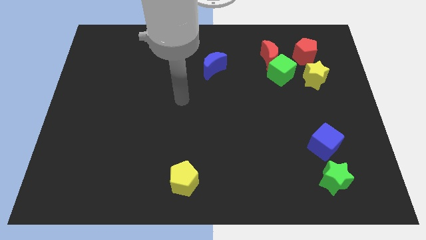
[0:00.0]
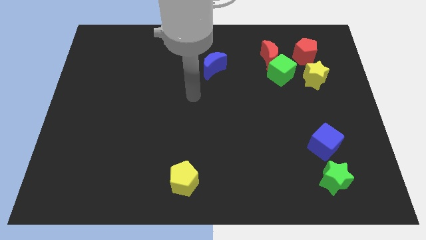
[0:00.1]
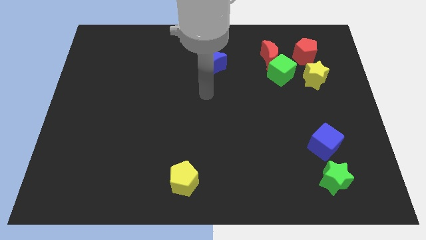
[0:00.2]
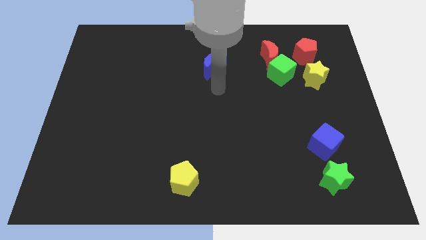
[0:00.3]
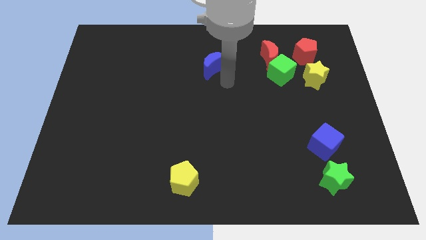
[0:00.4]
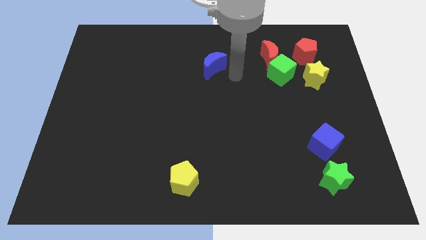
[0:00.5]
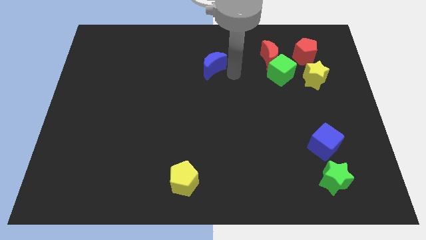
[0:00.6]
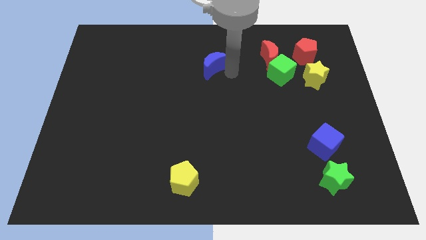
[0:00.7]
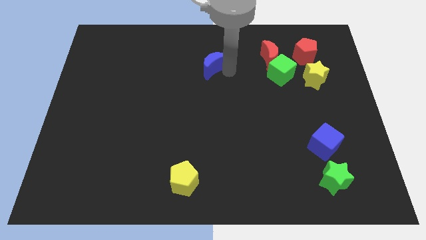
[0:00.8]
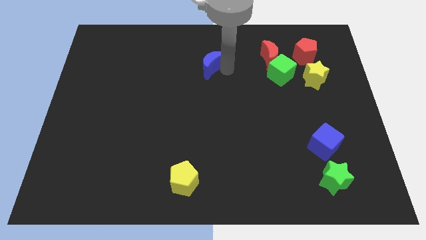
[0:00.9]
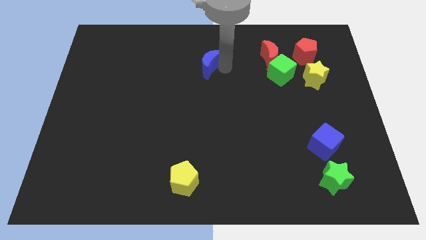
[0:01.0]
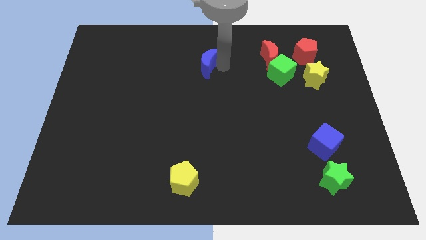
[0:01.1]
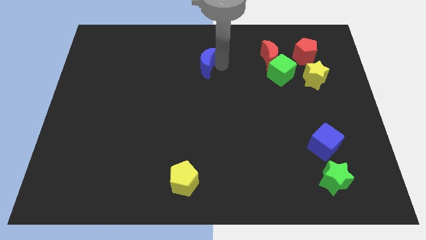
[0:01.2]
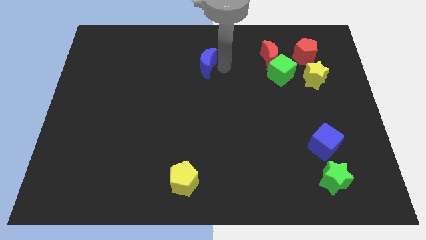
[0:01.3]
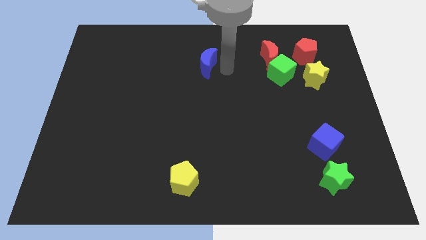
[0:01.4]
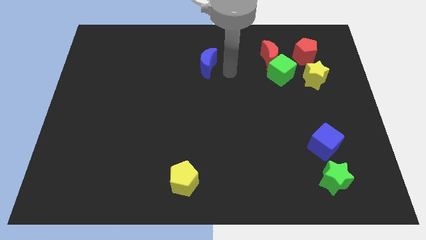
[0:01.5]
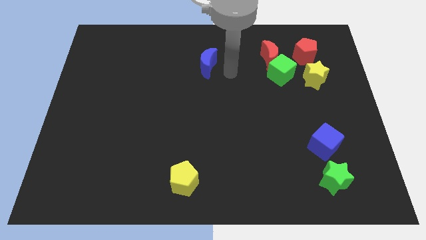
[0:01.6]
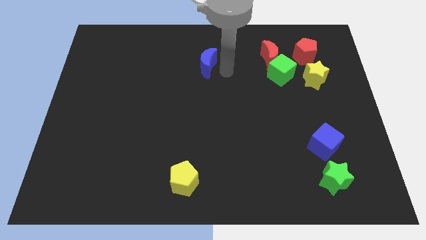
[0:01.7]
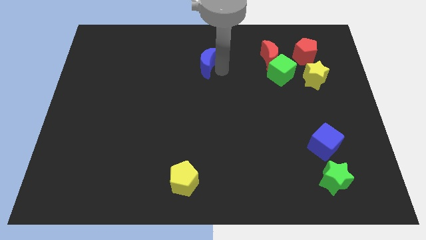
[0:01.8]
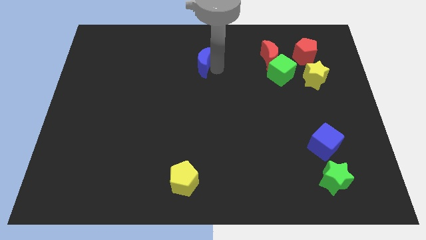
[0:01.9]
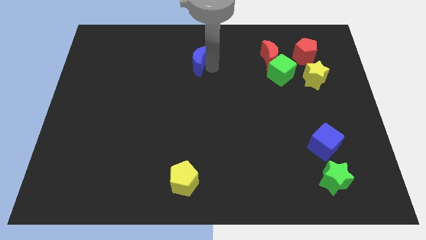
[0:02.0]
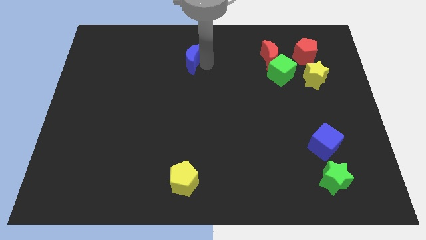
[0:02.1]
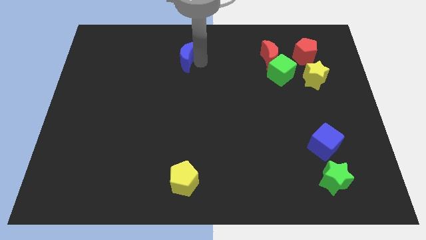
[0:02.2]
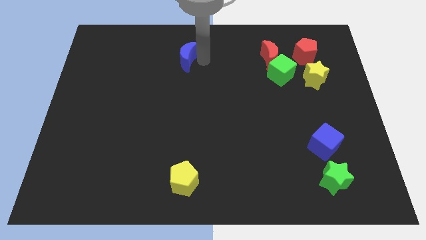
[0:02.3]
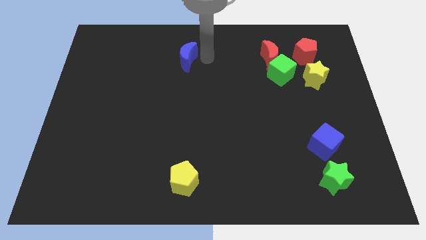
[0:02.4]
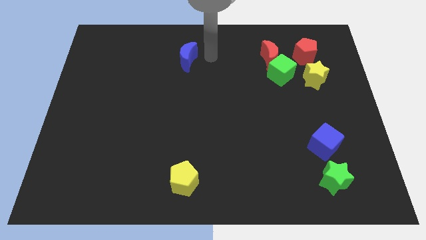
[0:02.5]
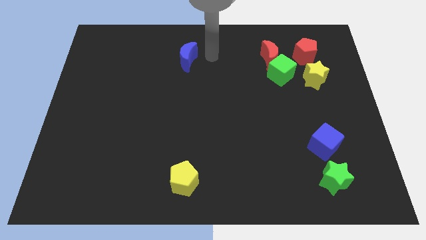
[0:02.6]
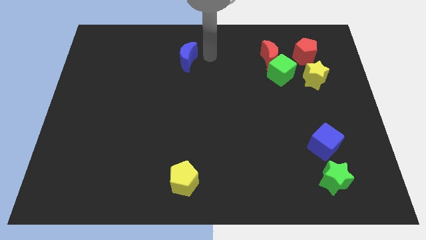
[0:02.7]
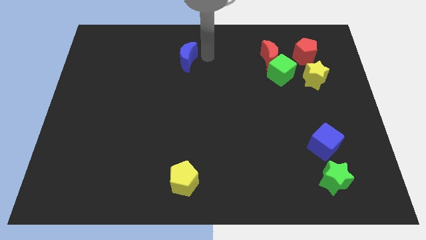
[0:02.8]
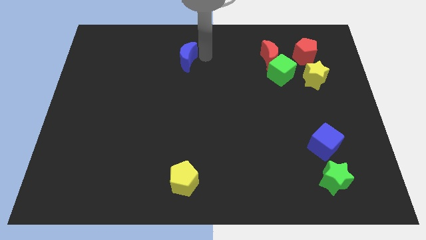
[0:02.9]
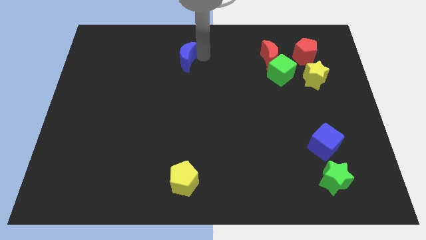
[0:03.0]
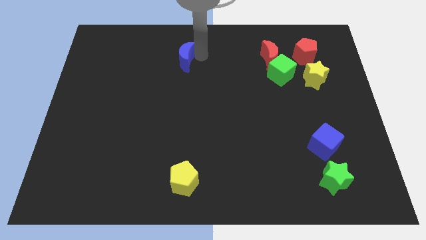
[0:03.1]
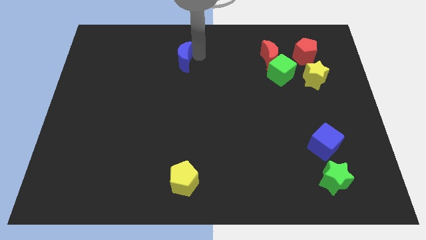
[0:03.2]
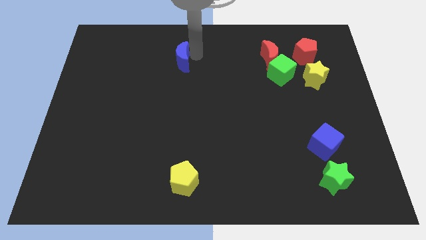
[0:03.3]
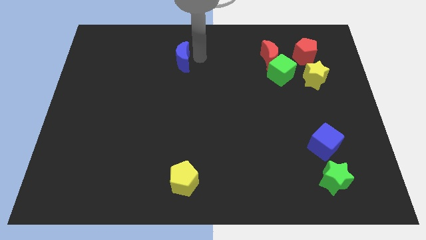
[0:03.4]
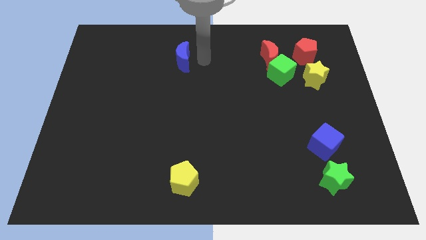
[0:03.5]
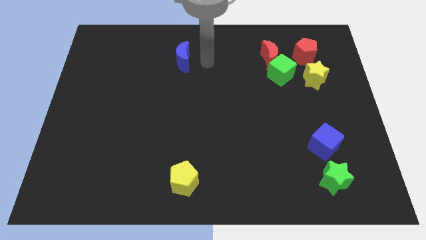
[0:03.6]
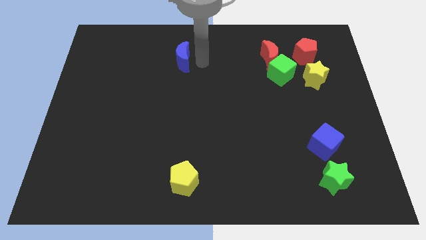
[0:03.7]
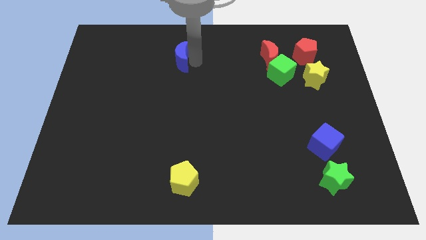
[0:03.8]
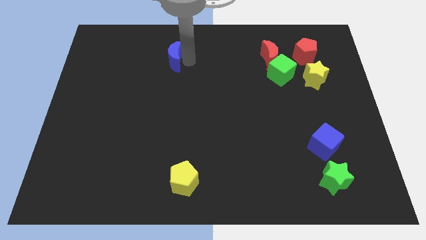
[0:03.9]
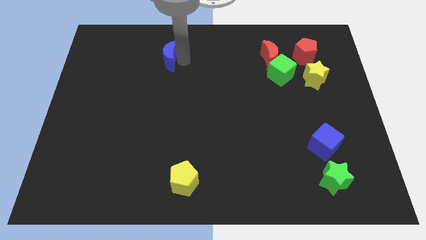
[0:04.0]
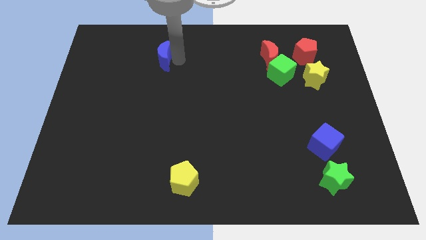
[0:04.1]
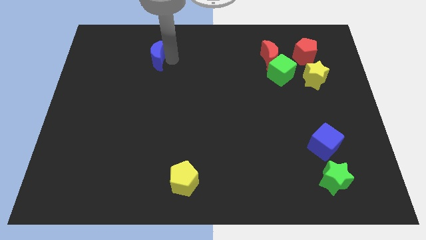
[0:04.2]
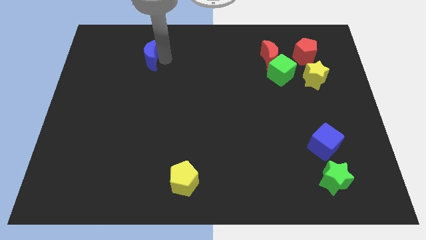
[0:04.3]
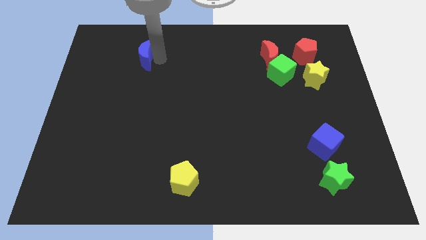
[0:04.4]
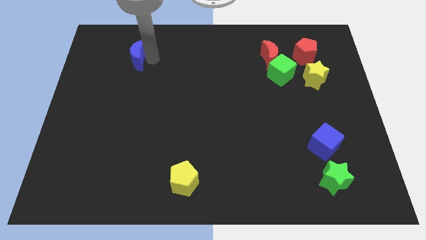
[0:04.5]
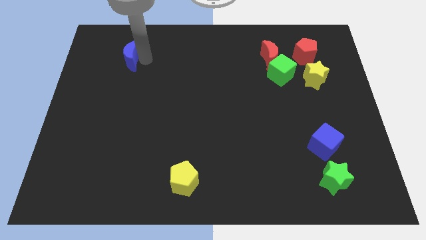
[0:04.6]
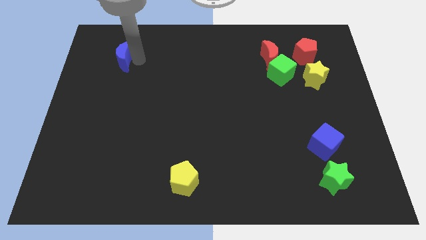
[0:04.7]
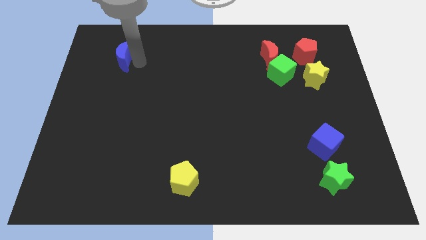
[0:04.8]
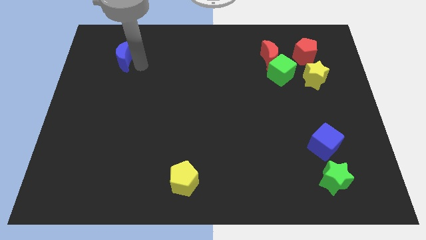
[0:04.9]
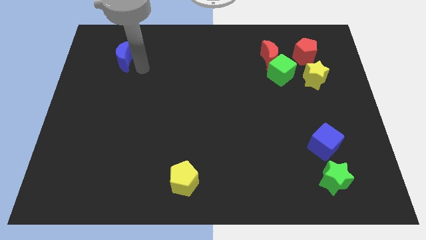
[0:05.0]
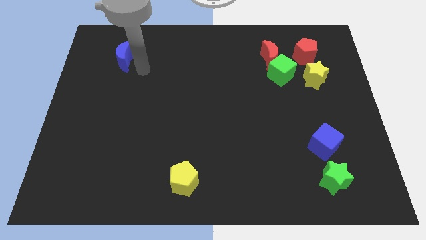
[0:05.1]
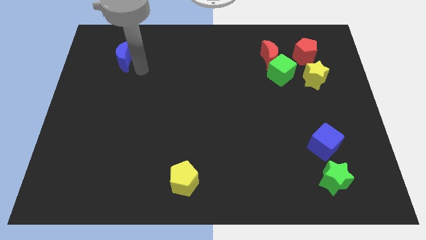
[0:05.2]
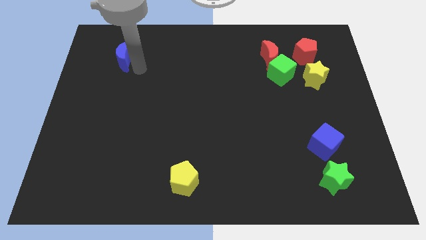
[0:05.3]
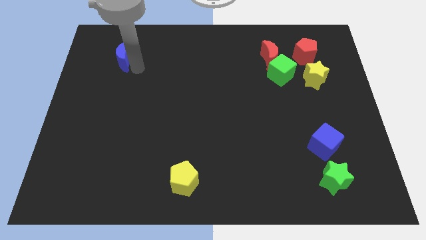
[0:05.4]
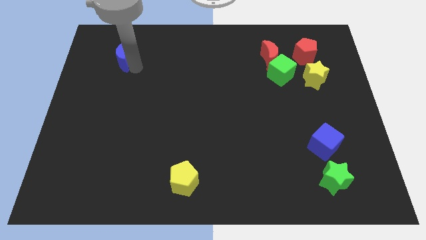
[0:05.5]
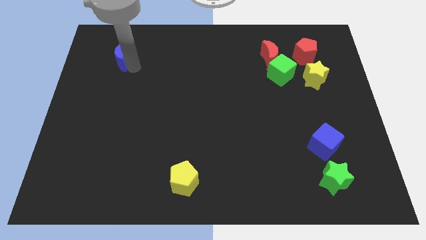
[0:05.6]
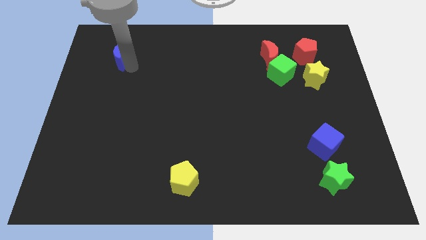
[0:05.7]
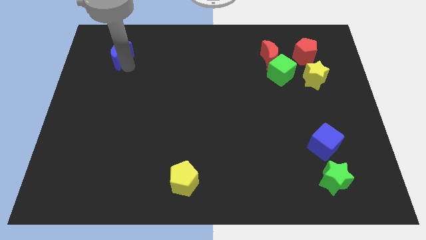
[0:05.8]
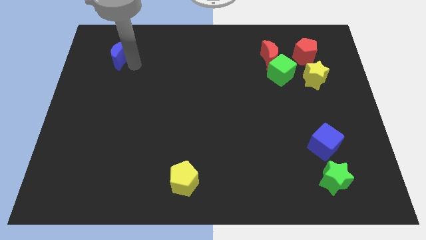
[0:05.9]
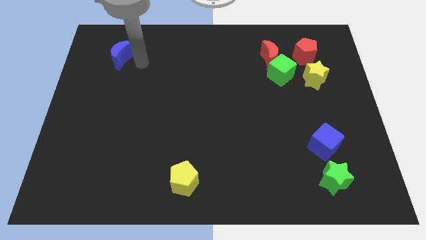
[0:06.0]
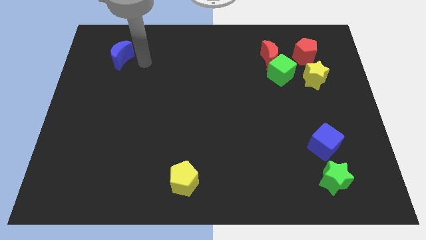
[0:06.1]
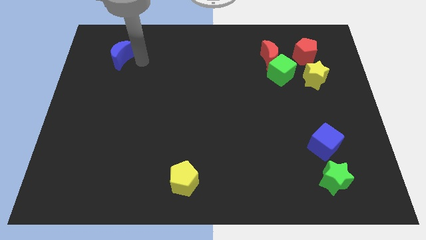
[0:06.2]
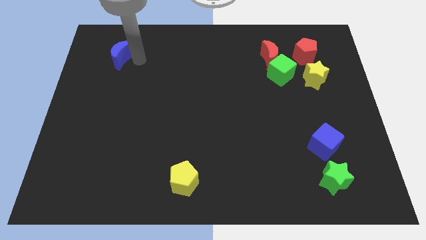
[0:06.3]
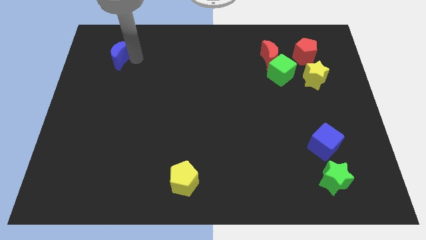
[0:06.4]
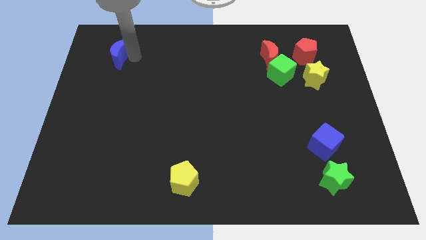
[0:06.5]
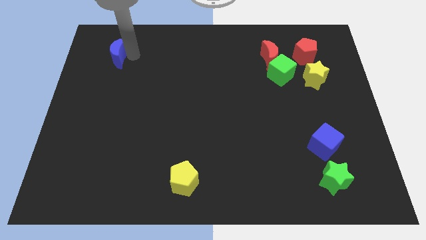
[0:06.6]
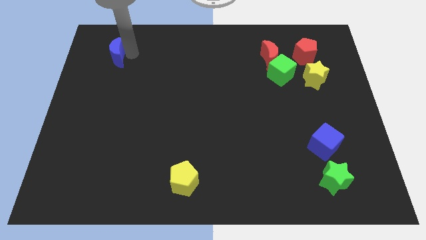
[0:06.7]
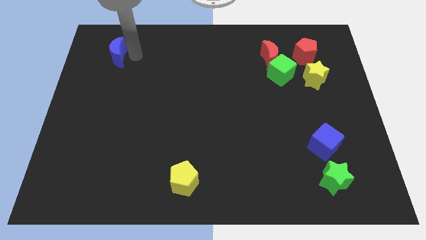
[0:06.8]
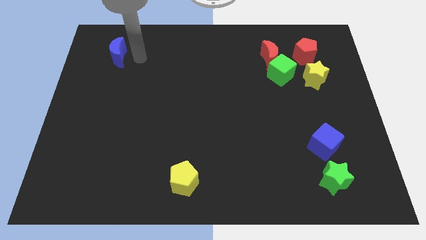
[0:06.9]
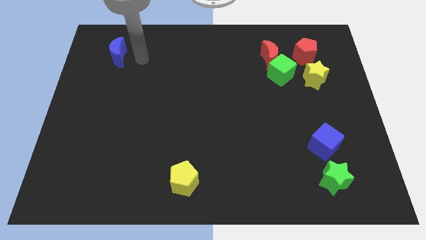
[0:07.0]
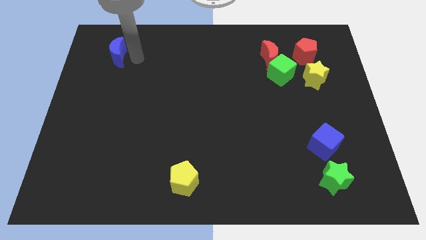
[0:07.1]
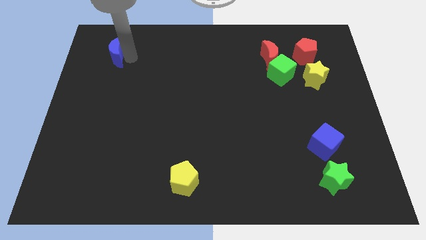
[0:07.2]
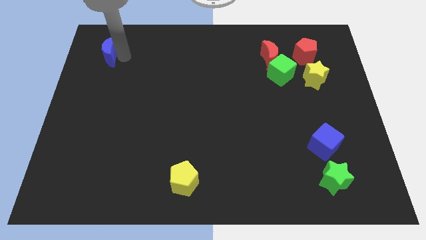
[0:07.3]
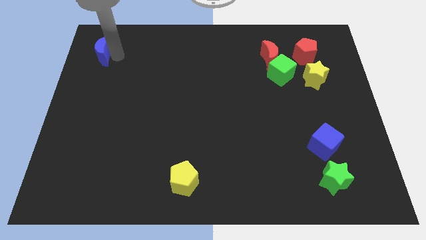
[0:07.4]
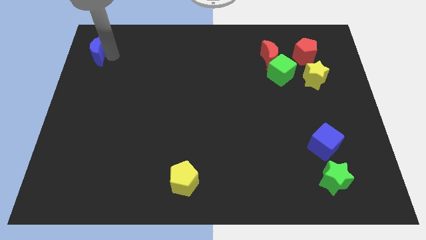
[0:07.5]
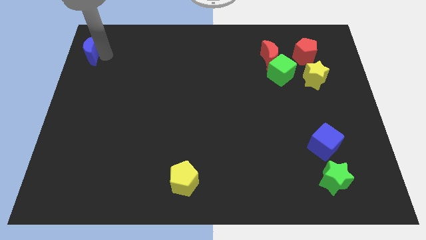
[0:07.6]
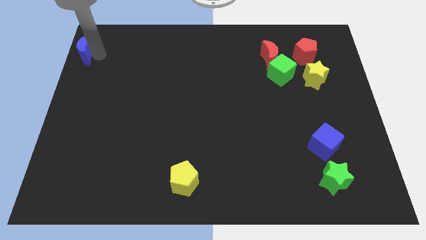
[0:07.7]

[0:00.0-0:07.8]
slide the blue moon to the top left
